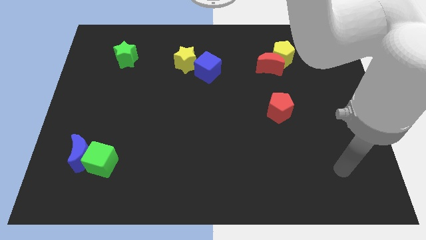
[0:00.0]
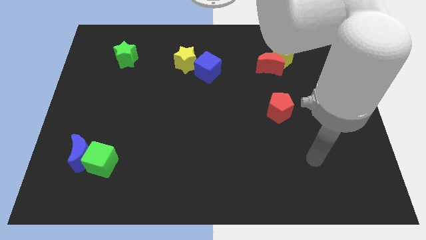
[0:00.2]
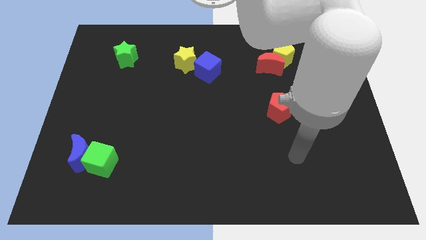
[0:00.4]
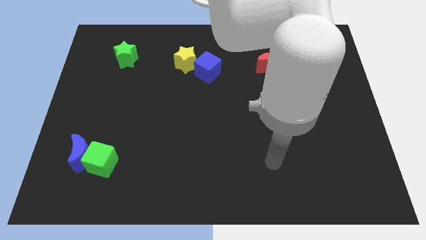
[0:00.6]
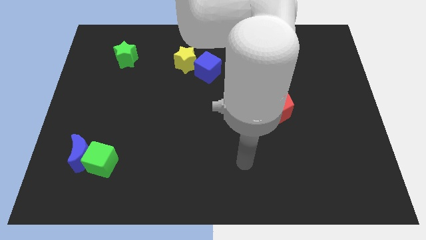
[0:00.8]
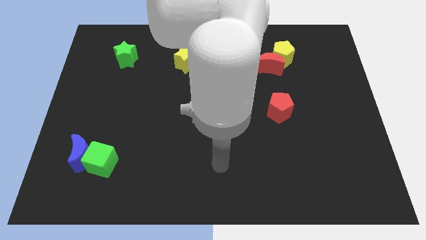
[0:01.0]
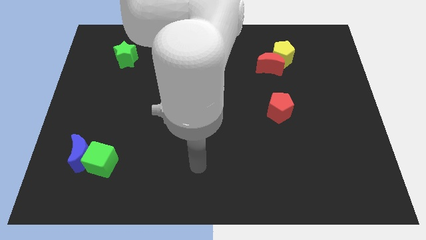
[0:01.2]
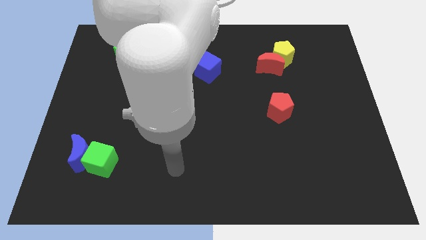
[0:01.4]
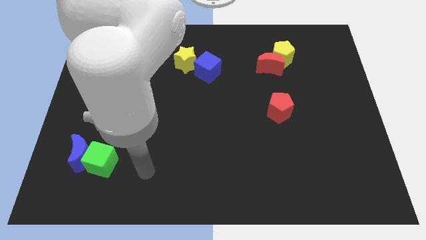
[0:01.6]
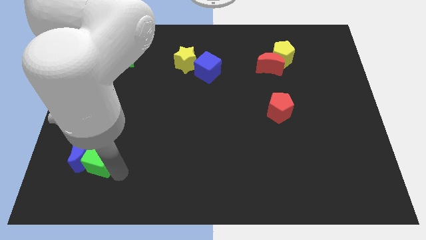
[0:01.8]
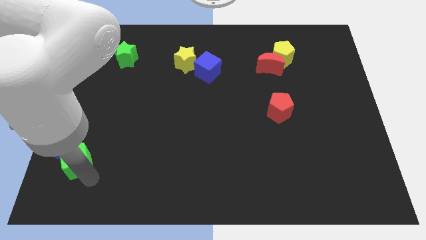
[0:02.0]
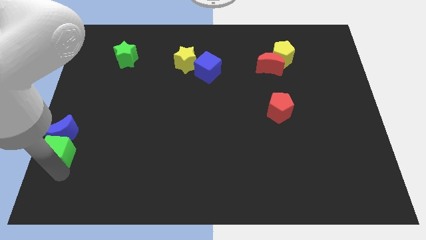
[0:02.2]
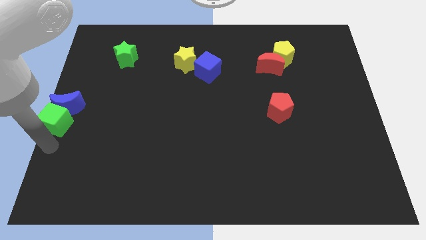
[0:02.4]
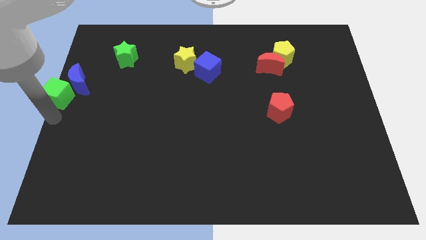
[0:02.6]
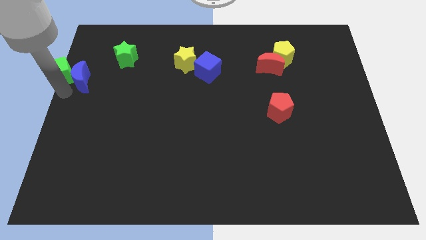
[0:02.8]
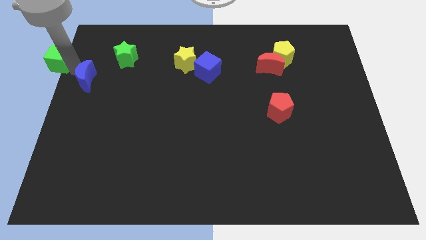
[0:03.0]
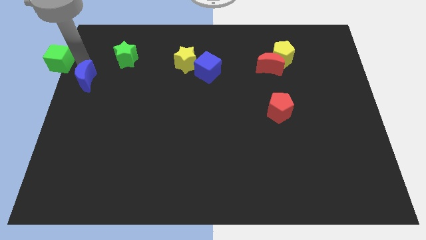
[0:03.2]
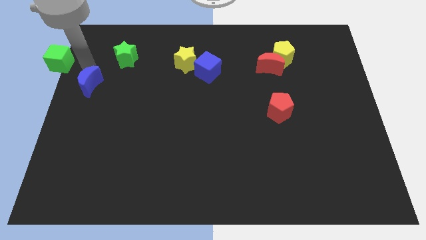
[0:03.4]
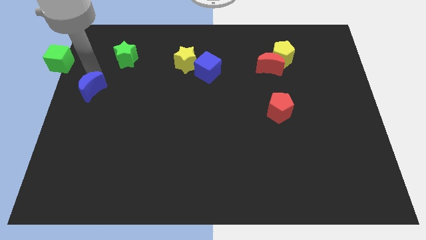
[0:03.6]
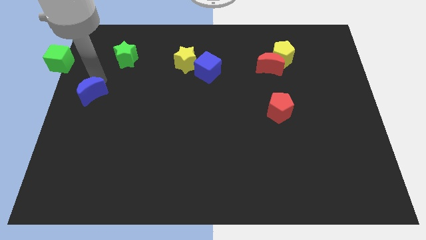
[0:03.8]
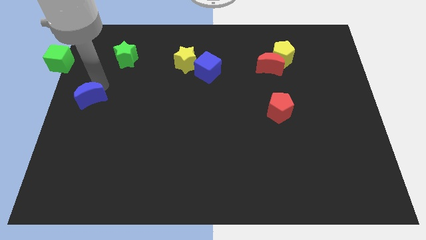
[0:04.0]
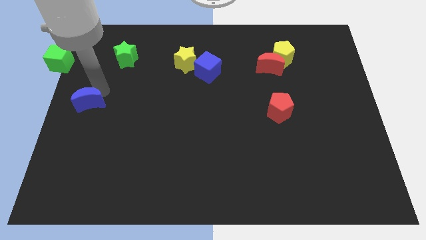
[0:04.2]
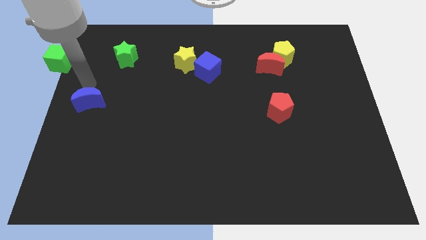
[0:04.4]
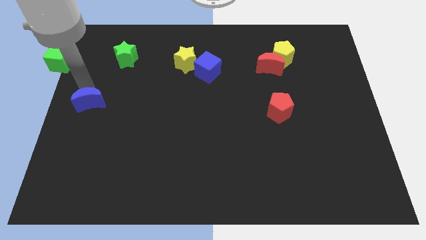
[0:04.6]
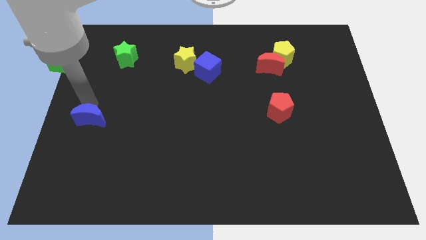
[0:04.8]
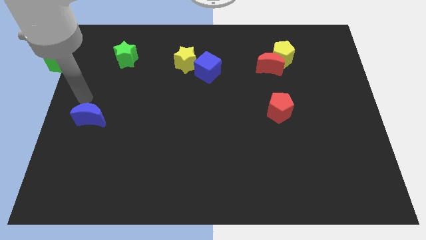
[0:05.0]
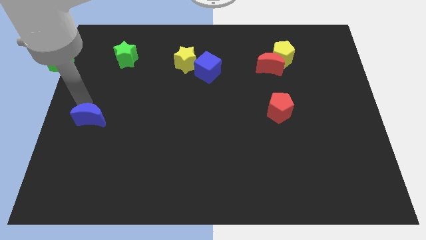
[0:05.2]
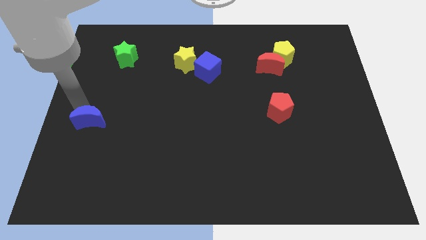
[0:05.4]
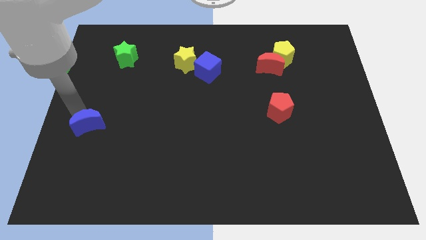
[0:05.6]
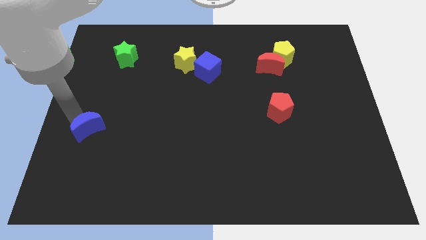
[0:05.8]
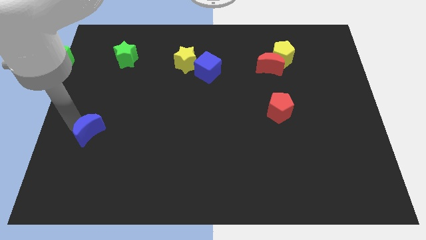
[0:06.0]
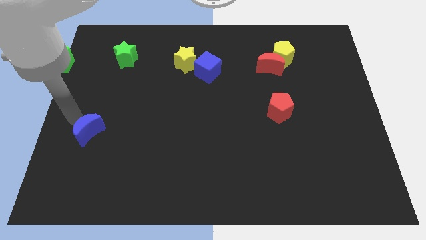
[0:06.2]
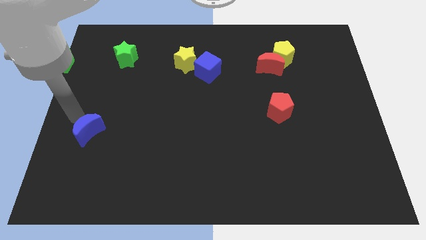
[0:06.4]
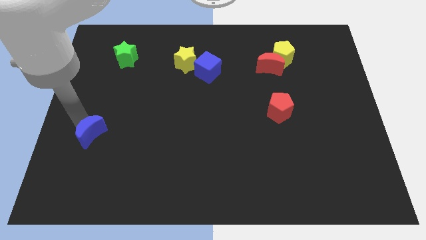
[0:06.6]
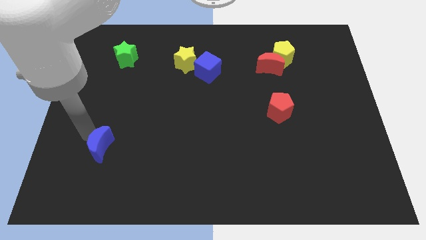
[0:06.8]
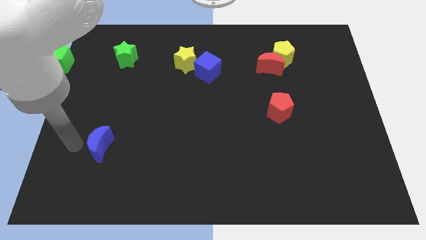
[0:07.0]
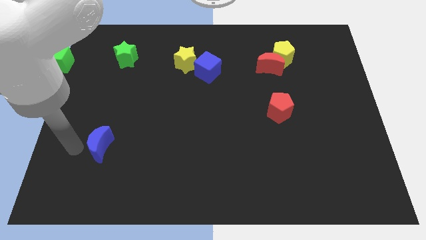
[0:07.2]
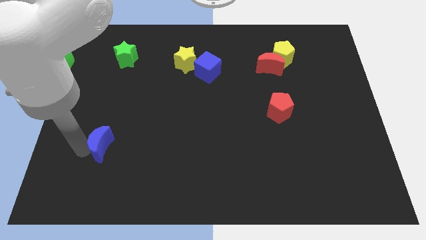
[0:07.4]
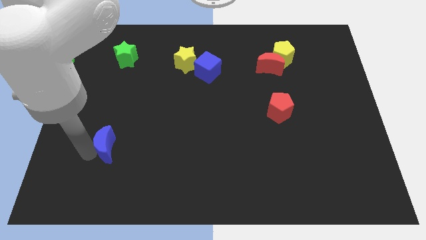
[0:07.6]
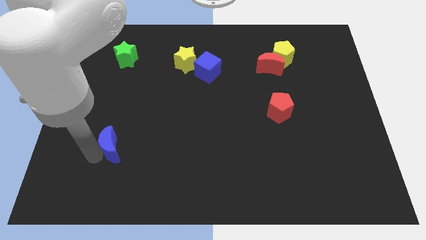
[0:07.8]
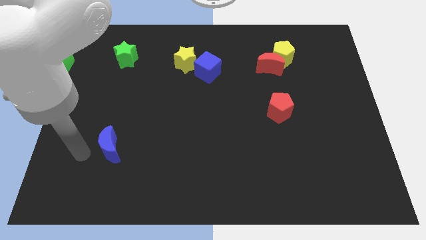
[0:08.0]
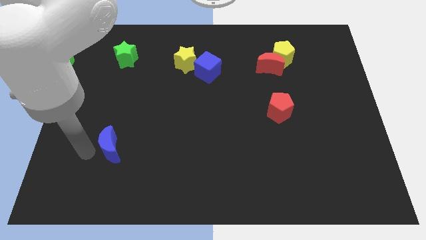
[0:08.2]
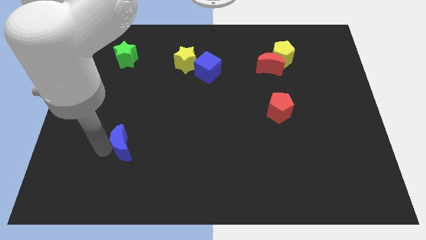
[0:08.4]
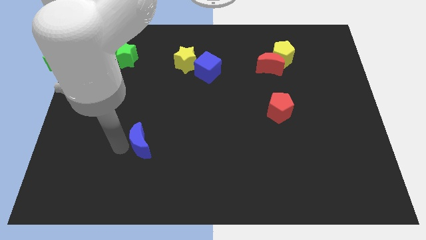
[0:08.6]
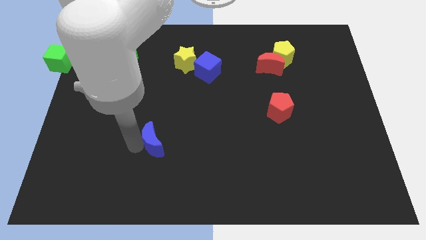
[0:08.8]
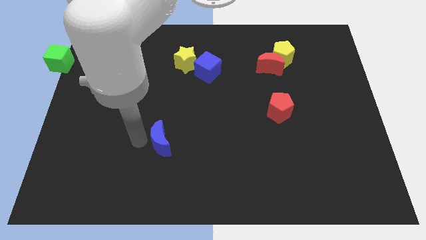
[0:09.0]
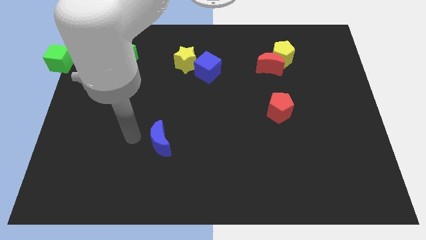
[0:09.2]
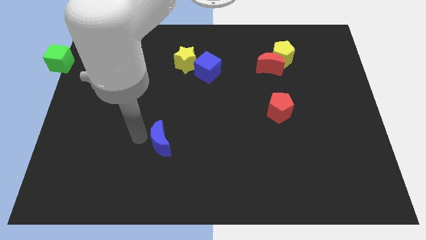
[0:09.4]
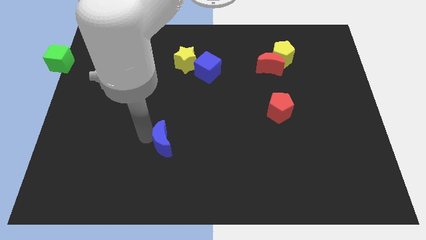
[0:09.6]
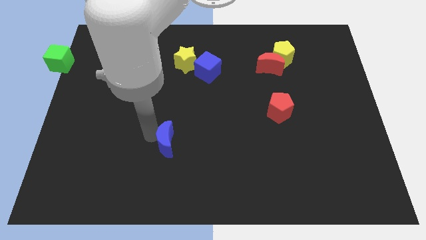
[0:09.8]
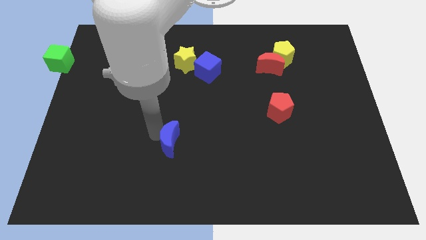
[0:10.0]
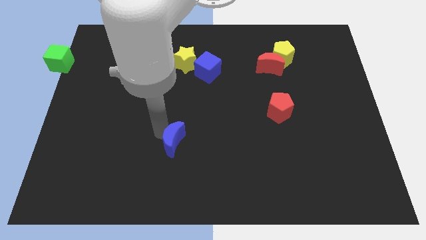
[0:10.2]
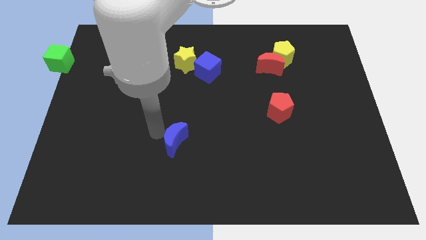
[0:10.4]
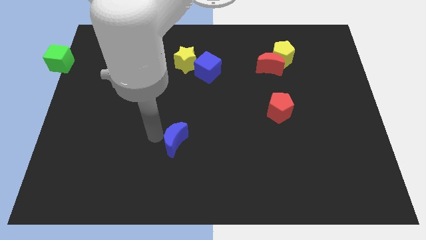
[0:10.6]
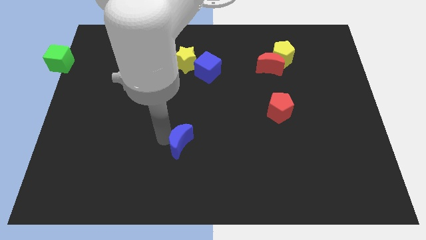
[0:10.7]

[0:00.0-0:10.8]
move the blue moon to the right

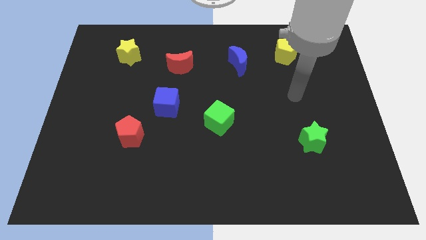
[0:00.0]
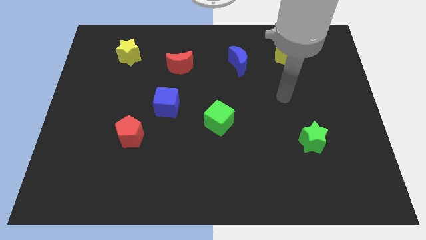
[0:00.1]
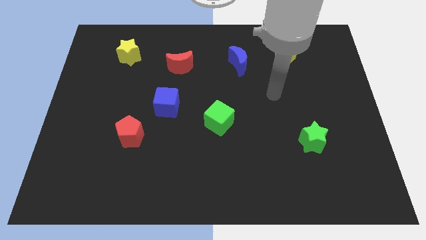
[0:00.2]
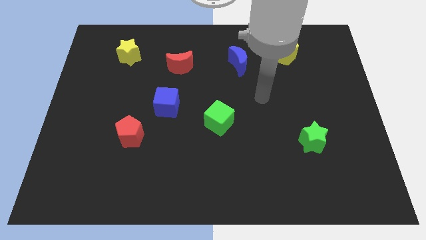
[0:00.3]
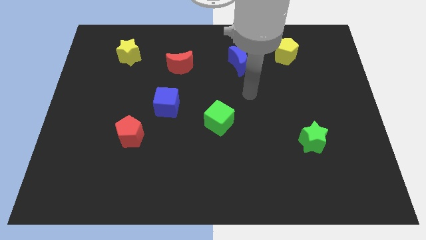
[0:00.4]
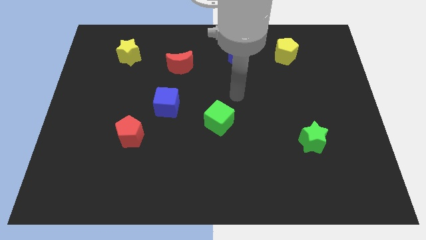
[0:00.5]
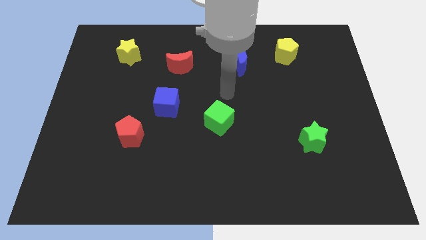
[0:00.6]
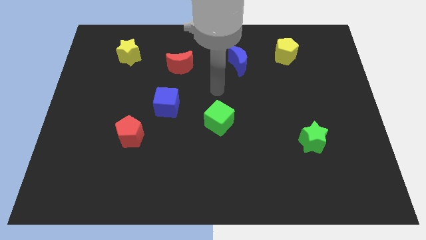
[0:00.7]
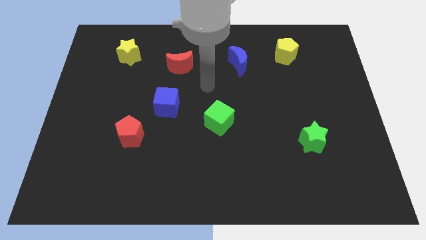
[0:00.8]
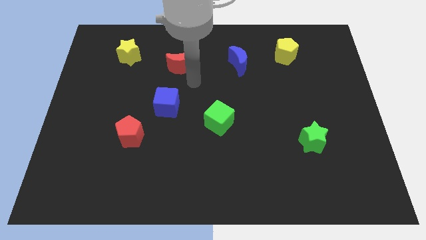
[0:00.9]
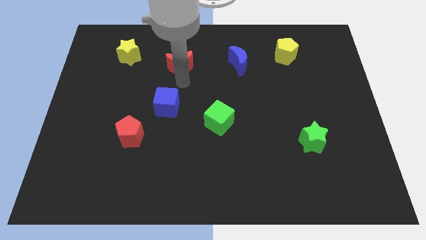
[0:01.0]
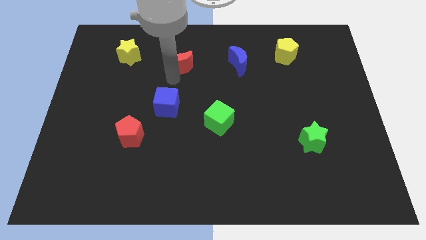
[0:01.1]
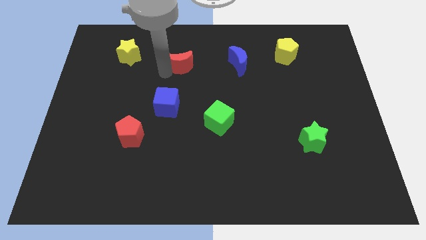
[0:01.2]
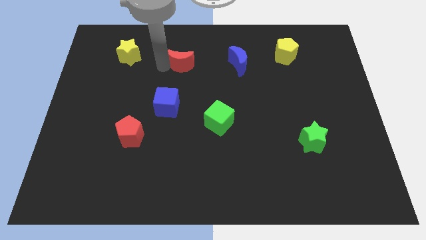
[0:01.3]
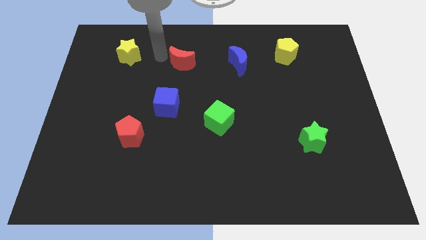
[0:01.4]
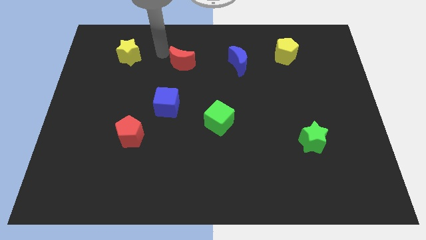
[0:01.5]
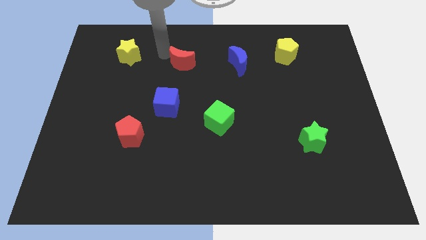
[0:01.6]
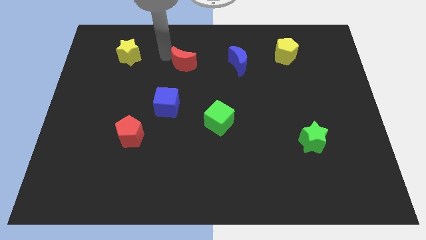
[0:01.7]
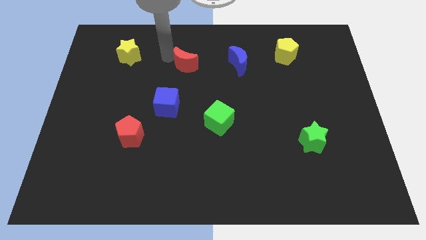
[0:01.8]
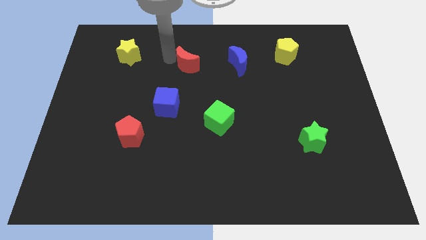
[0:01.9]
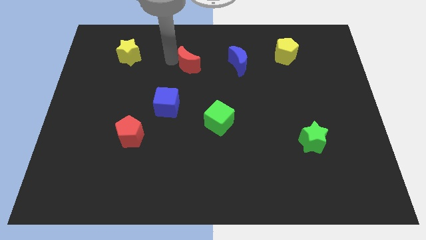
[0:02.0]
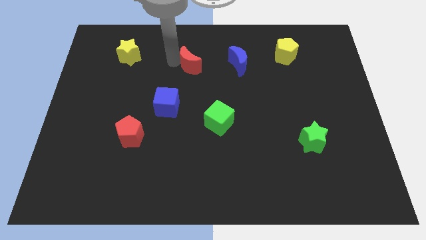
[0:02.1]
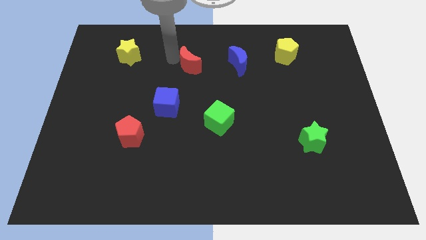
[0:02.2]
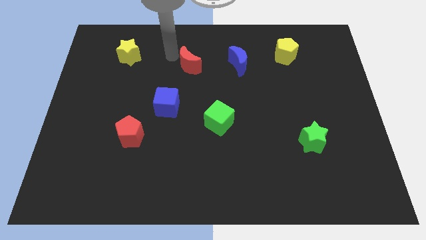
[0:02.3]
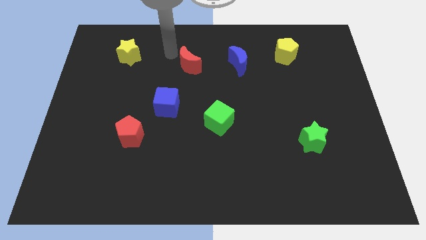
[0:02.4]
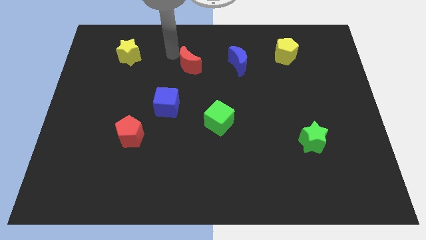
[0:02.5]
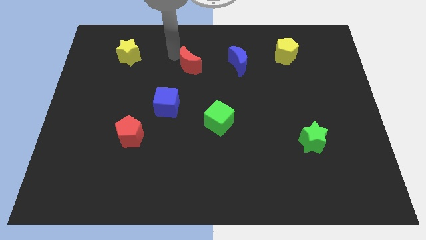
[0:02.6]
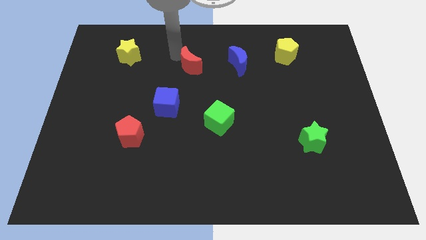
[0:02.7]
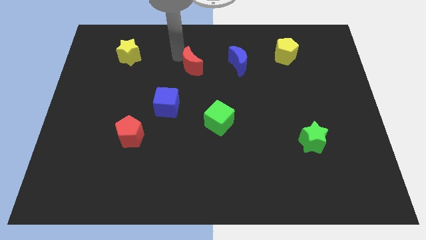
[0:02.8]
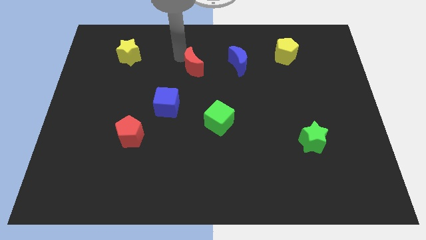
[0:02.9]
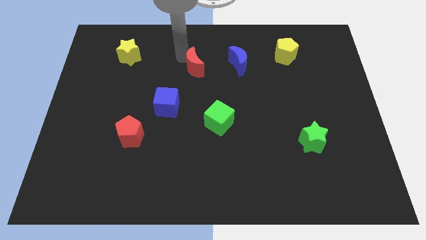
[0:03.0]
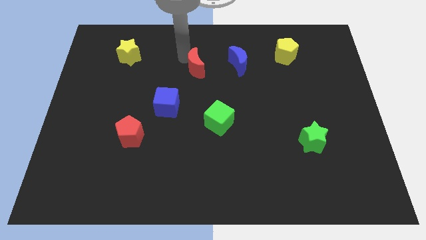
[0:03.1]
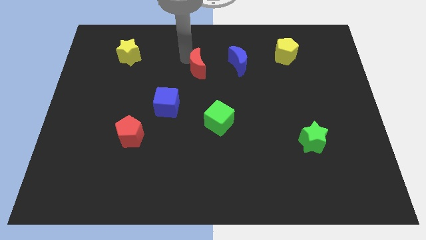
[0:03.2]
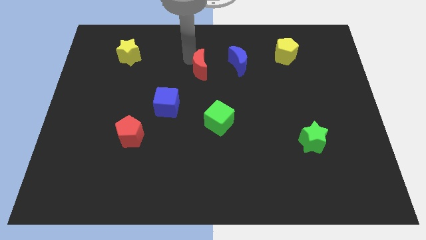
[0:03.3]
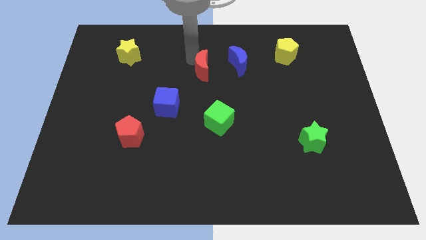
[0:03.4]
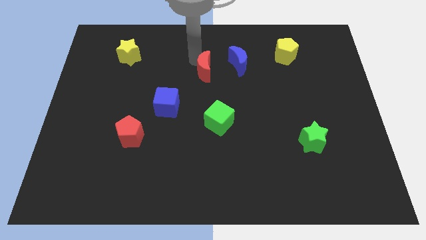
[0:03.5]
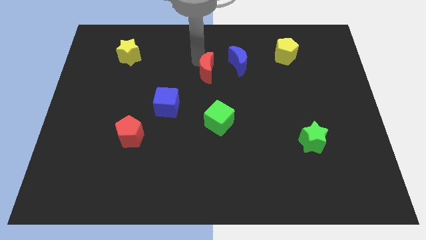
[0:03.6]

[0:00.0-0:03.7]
move the red moon a little right
